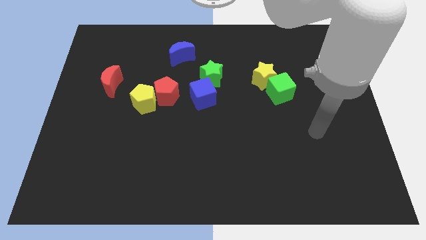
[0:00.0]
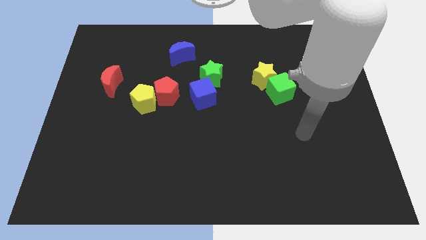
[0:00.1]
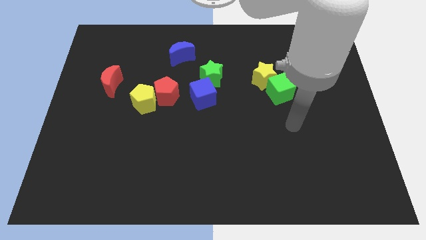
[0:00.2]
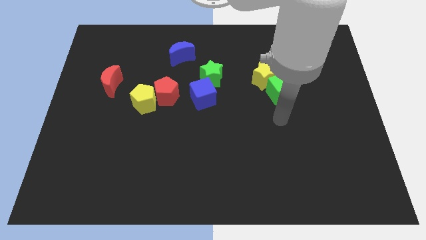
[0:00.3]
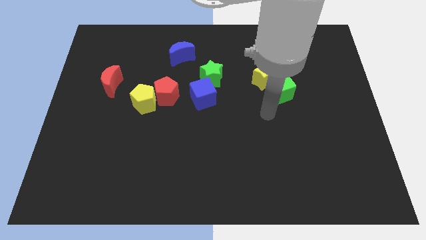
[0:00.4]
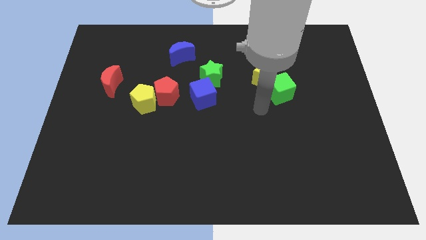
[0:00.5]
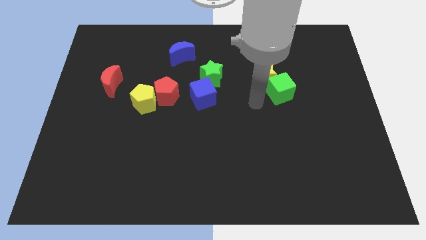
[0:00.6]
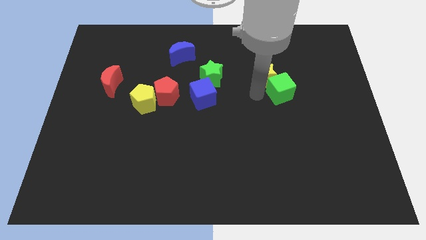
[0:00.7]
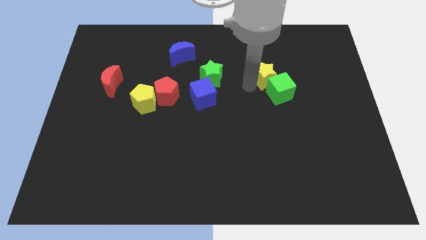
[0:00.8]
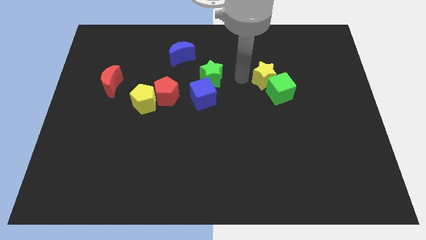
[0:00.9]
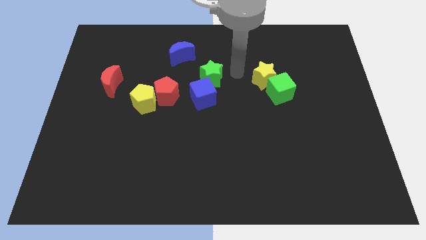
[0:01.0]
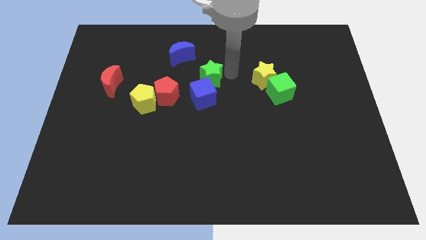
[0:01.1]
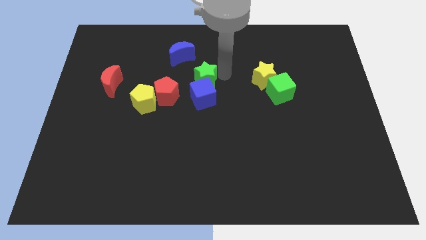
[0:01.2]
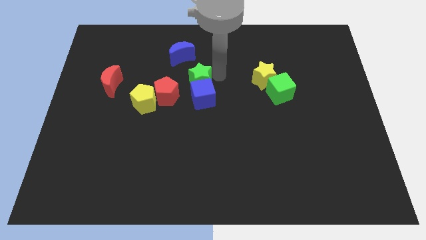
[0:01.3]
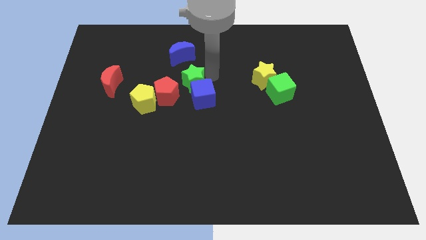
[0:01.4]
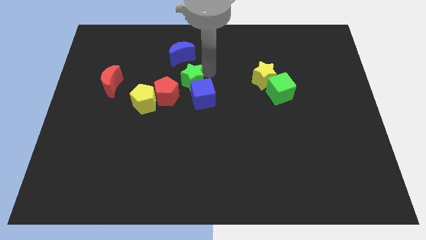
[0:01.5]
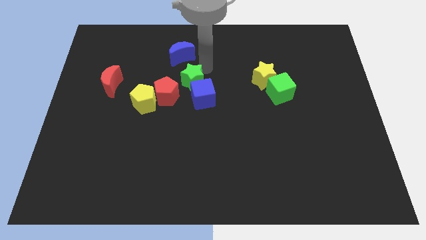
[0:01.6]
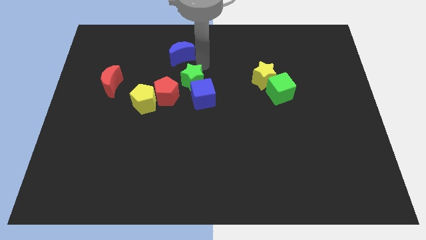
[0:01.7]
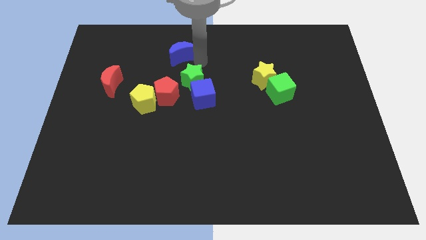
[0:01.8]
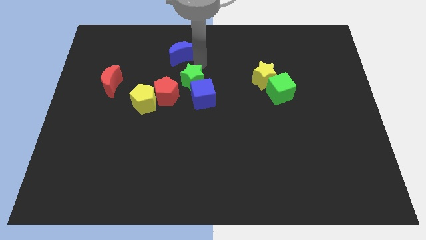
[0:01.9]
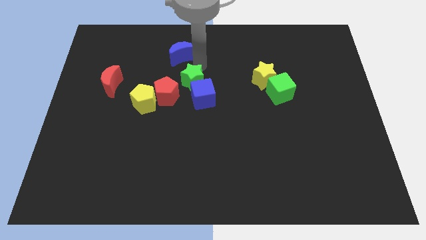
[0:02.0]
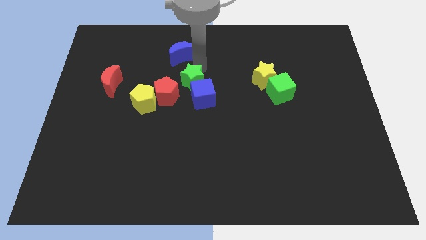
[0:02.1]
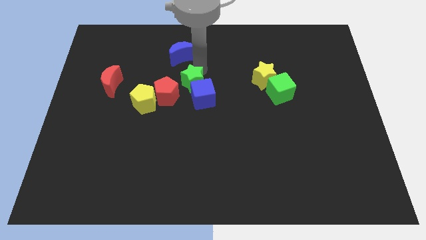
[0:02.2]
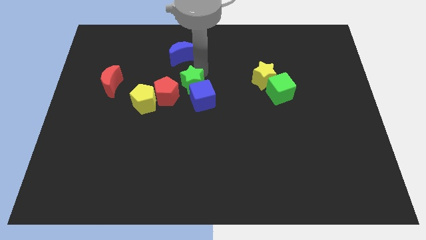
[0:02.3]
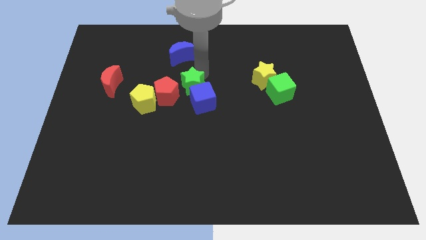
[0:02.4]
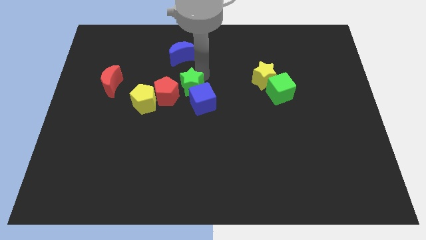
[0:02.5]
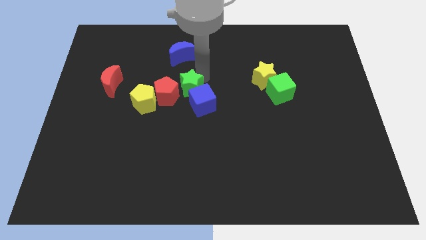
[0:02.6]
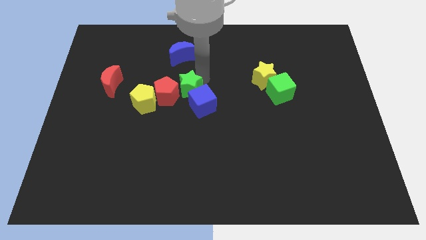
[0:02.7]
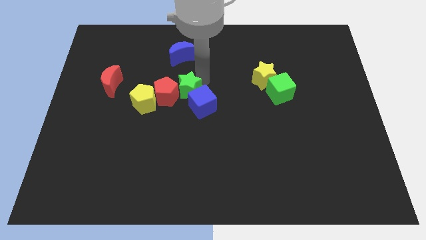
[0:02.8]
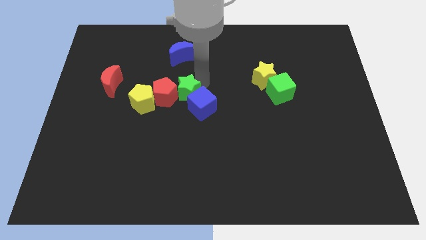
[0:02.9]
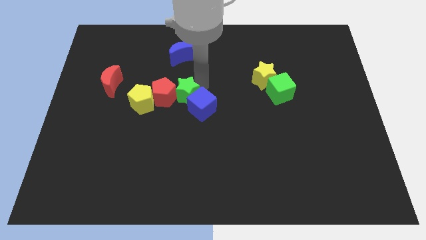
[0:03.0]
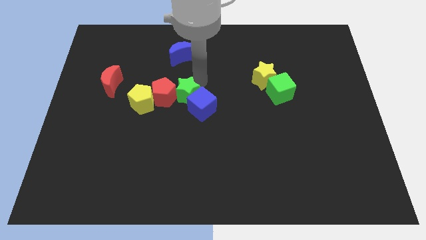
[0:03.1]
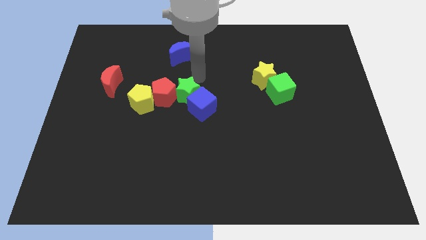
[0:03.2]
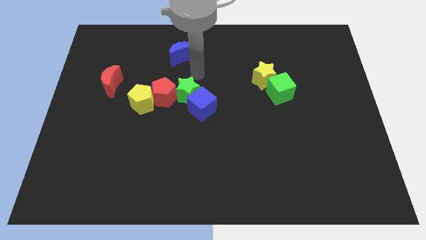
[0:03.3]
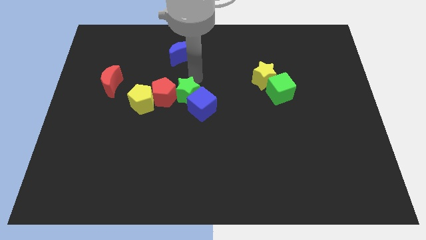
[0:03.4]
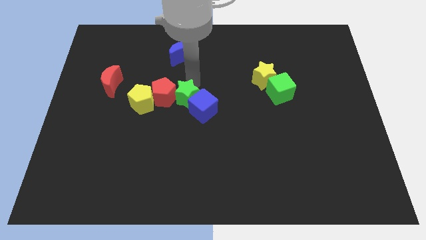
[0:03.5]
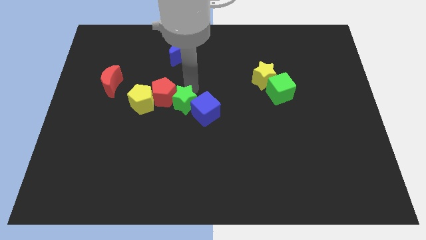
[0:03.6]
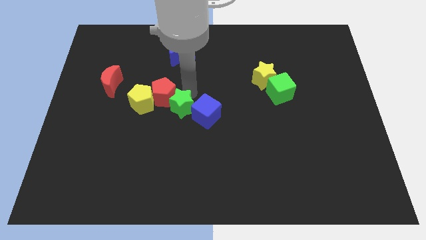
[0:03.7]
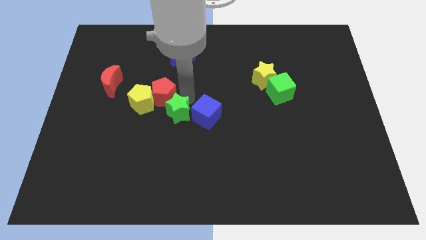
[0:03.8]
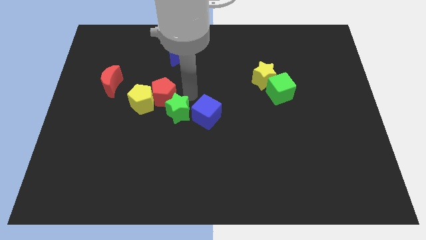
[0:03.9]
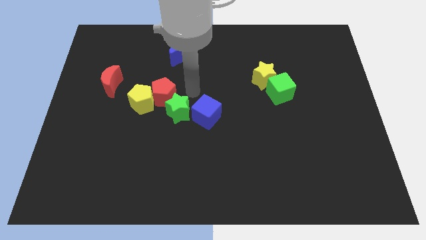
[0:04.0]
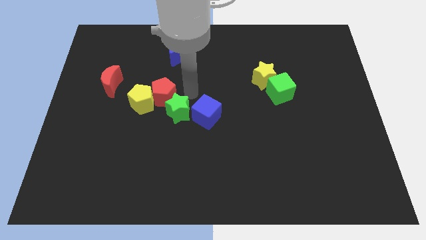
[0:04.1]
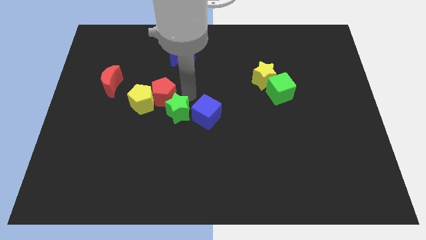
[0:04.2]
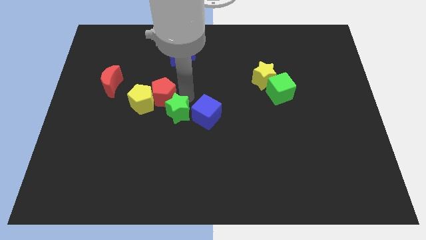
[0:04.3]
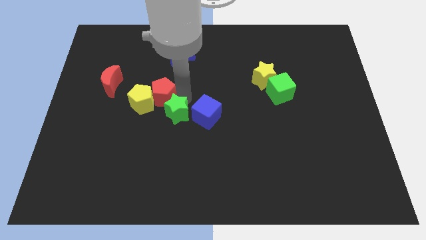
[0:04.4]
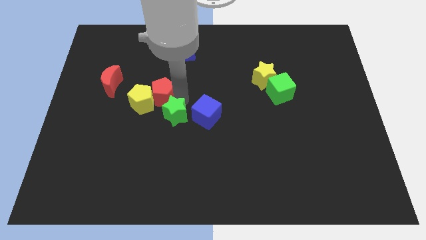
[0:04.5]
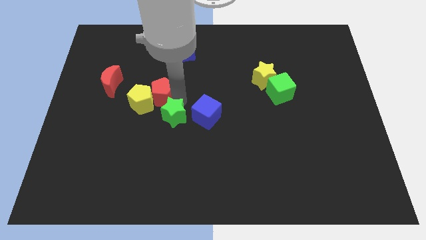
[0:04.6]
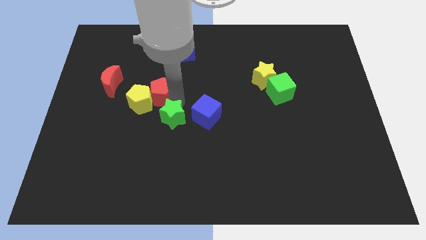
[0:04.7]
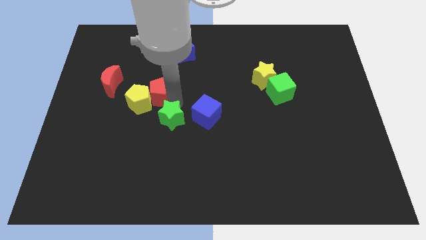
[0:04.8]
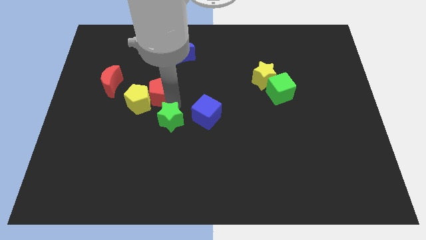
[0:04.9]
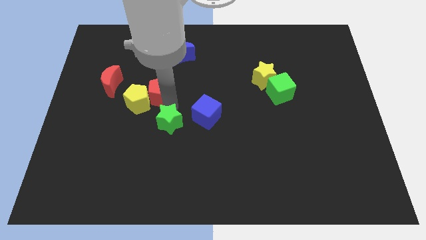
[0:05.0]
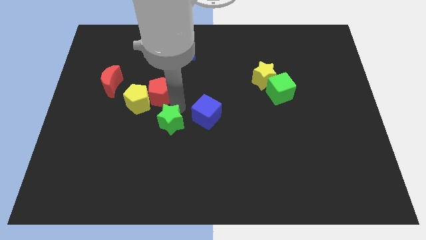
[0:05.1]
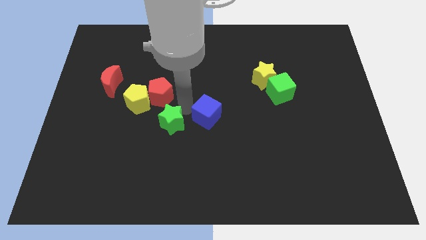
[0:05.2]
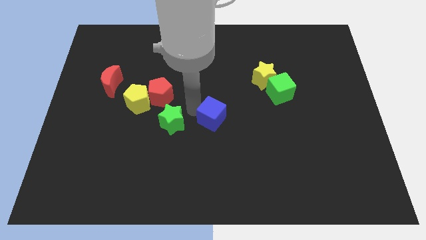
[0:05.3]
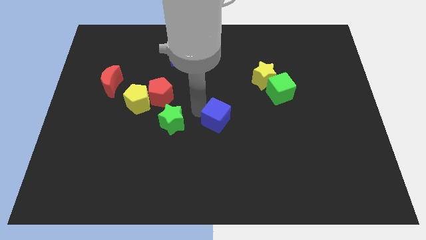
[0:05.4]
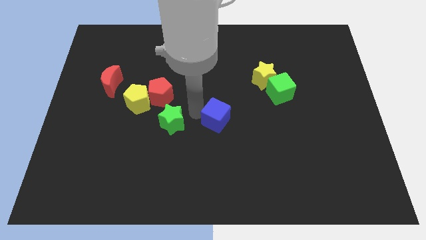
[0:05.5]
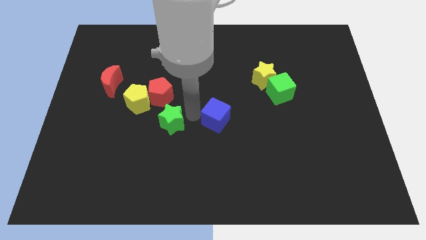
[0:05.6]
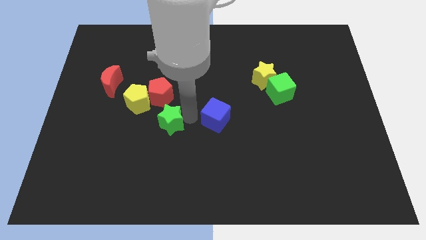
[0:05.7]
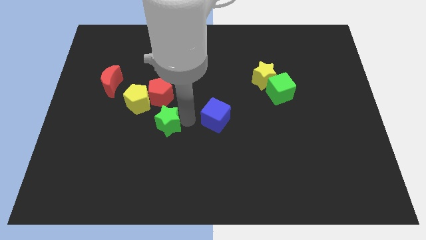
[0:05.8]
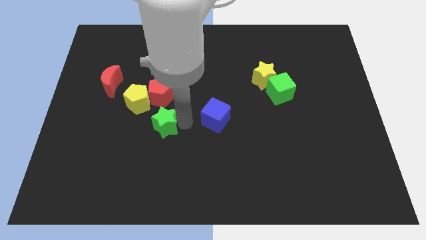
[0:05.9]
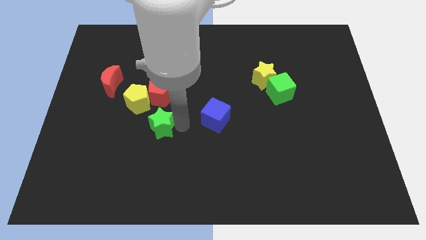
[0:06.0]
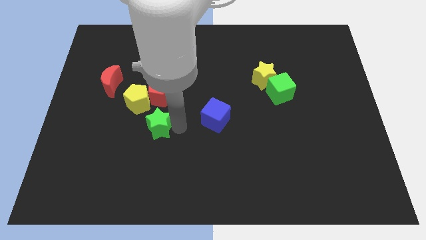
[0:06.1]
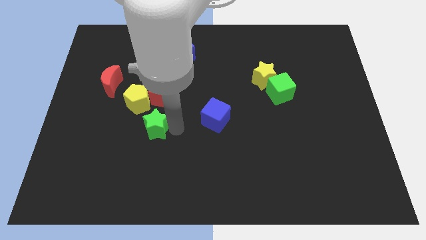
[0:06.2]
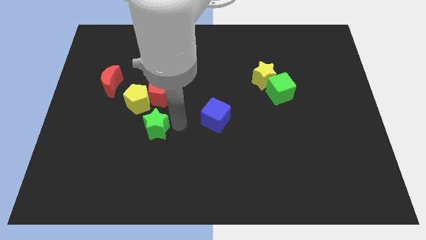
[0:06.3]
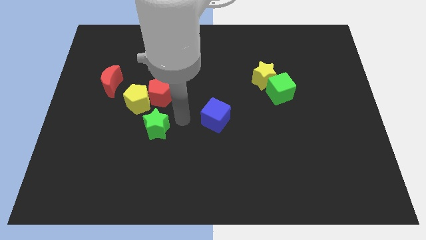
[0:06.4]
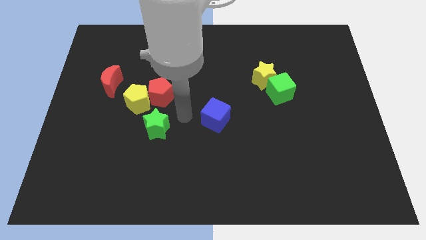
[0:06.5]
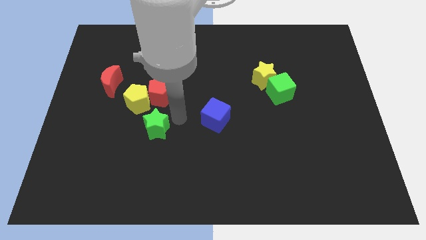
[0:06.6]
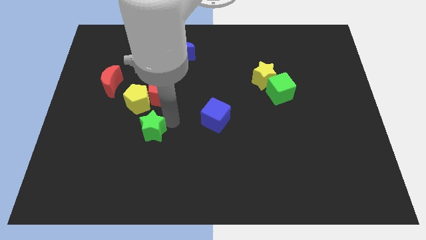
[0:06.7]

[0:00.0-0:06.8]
slide the green star to the bottom of the yellow pentagon
